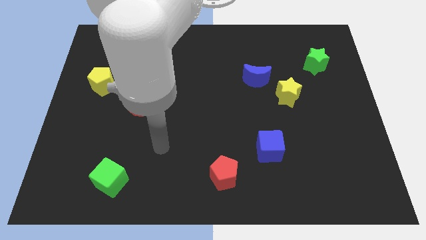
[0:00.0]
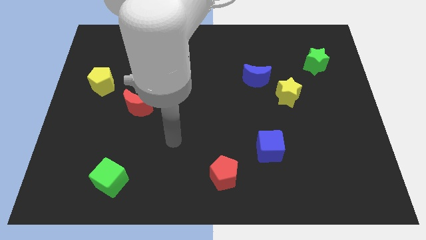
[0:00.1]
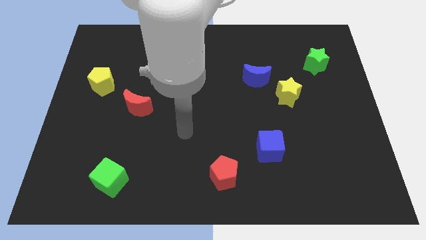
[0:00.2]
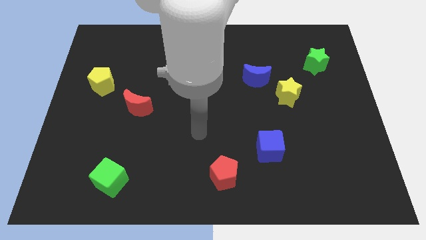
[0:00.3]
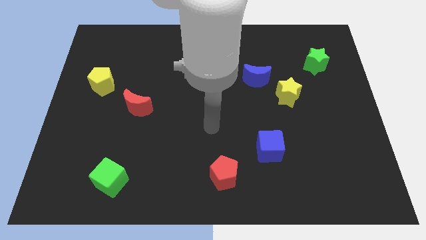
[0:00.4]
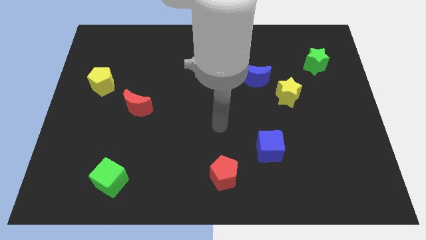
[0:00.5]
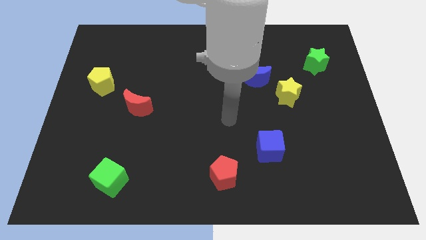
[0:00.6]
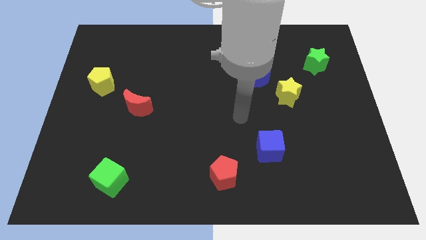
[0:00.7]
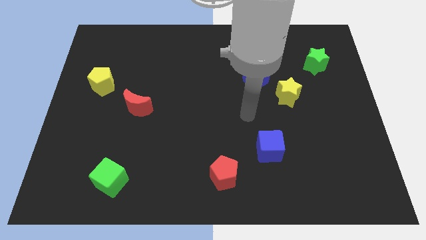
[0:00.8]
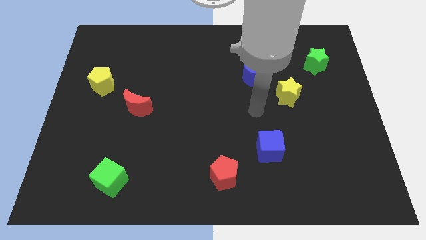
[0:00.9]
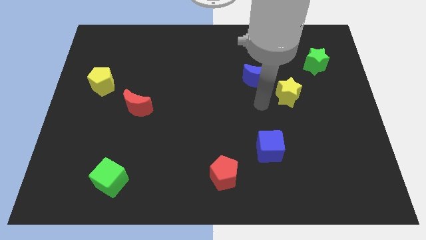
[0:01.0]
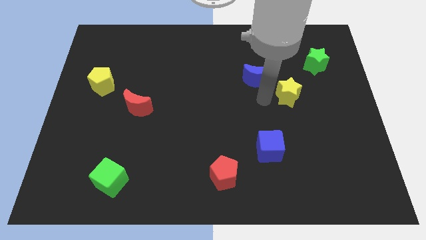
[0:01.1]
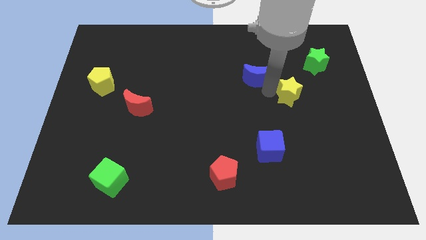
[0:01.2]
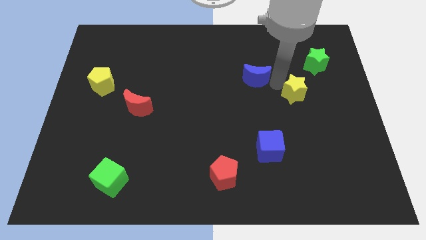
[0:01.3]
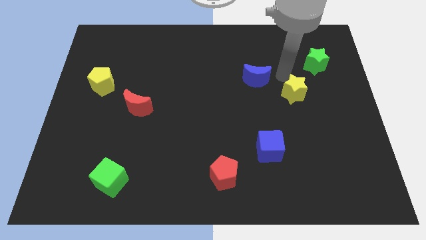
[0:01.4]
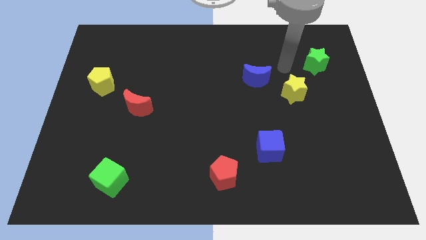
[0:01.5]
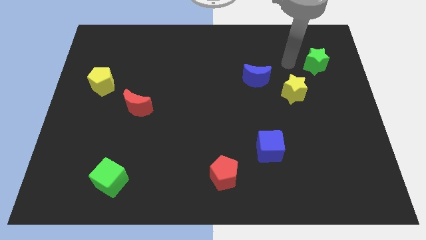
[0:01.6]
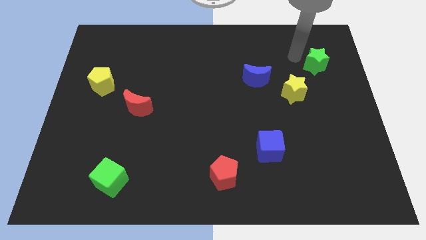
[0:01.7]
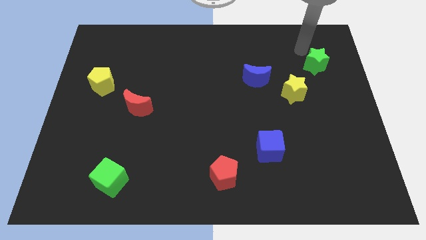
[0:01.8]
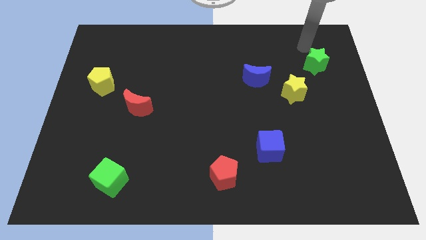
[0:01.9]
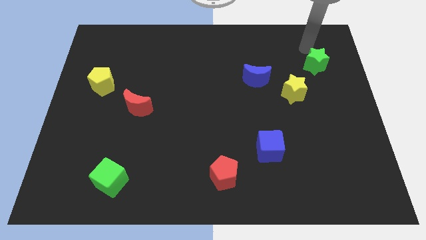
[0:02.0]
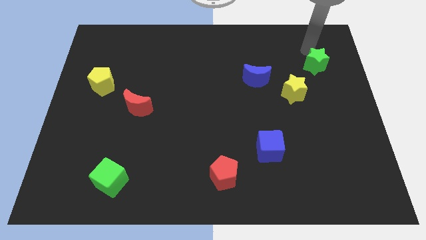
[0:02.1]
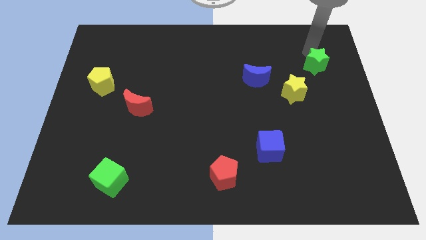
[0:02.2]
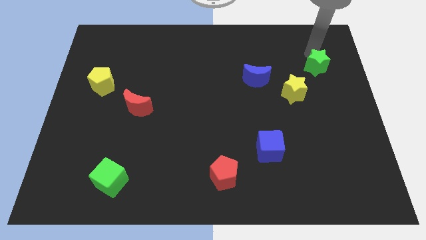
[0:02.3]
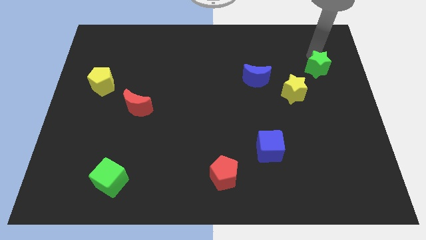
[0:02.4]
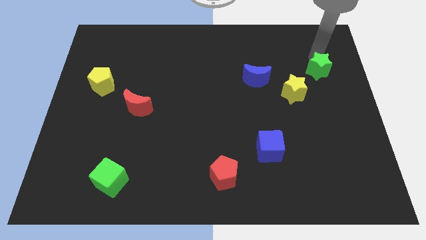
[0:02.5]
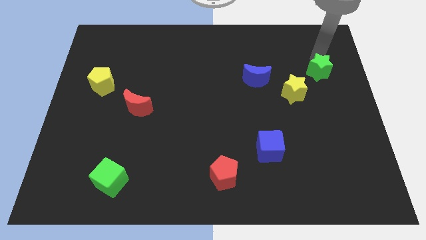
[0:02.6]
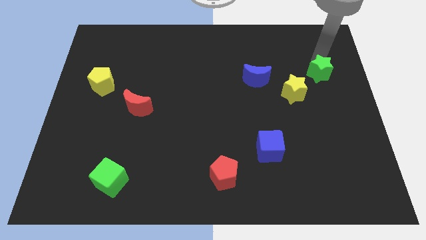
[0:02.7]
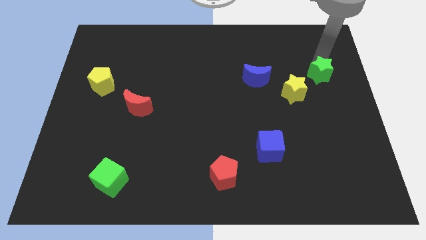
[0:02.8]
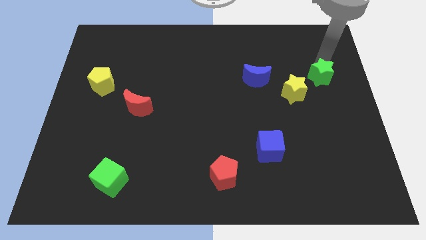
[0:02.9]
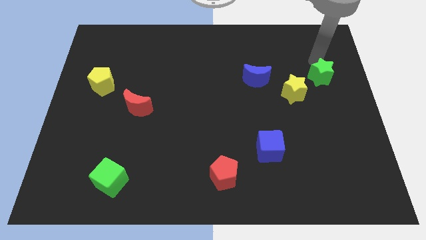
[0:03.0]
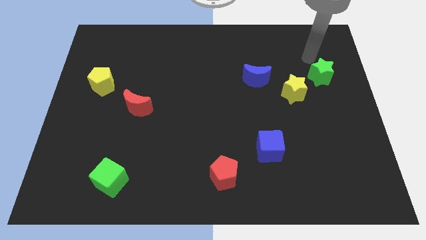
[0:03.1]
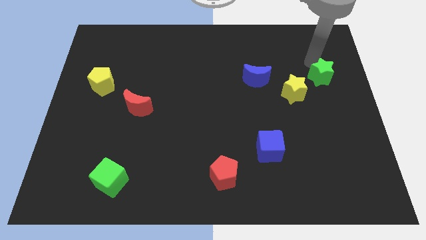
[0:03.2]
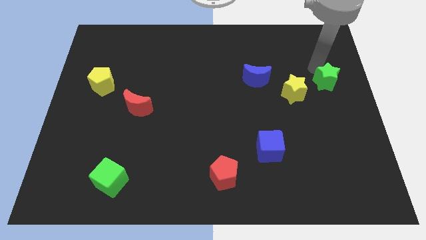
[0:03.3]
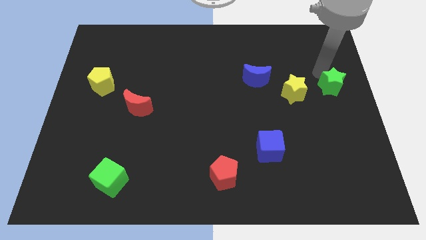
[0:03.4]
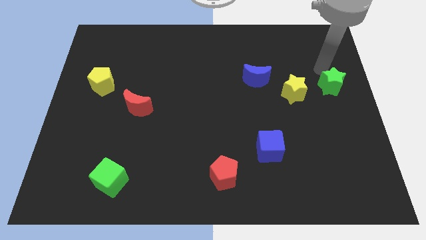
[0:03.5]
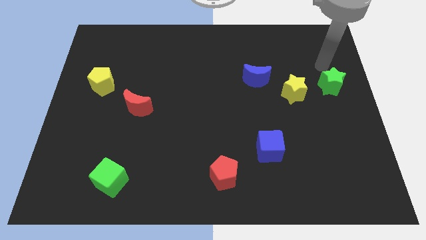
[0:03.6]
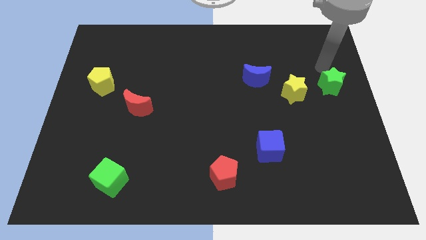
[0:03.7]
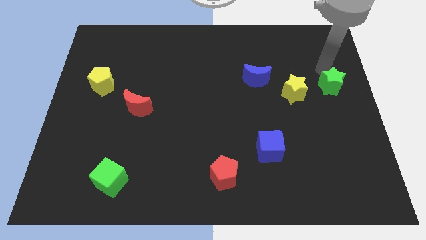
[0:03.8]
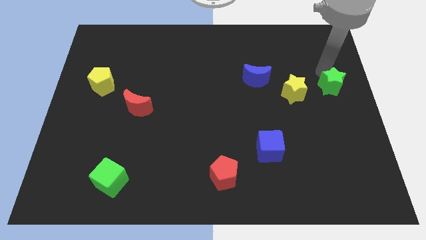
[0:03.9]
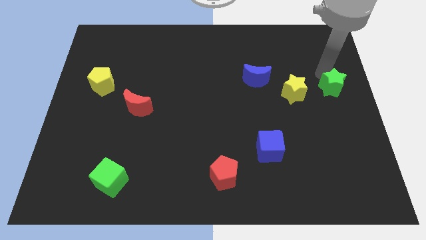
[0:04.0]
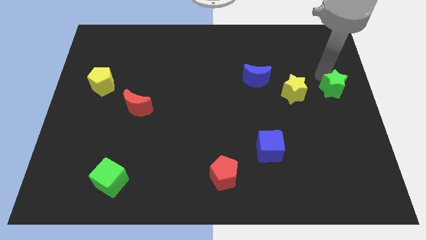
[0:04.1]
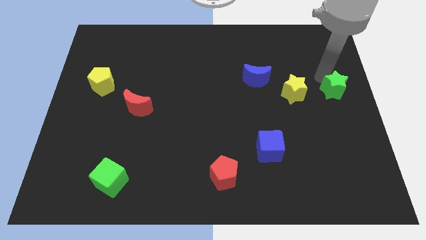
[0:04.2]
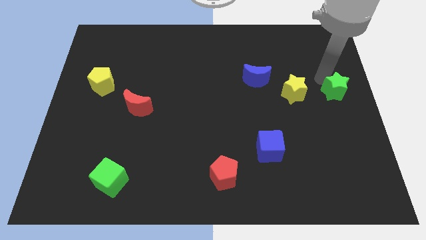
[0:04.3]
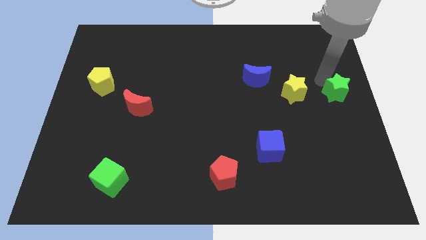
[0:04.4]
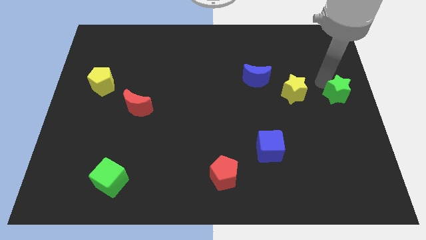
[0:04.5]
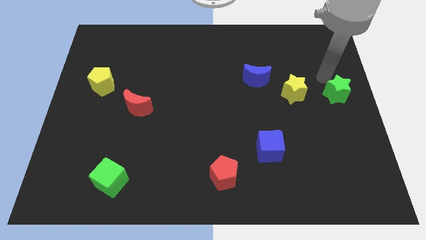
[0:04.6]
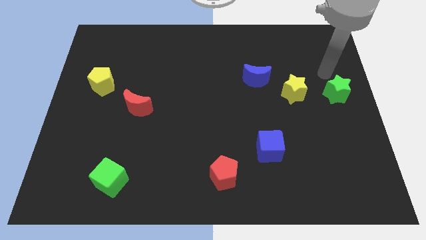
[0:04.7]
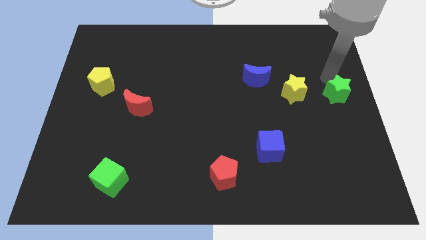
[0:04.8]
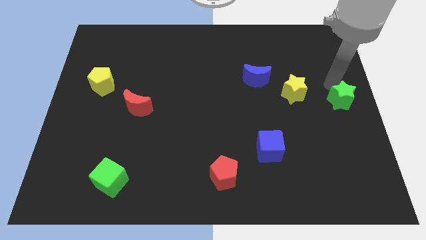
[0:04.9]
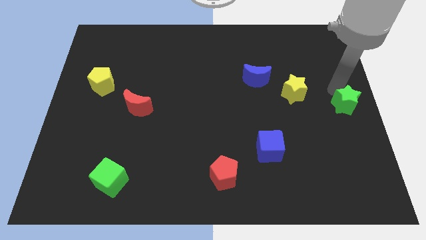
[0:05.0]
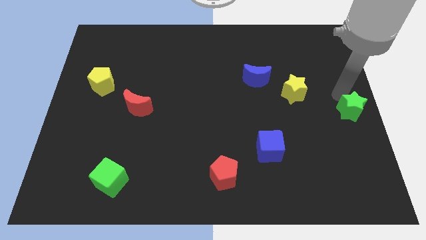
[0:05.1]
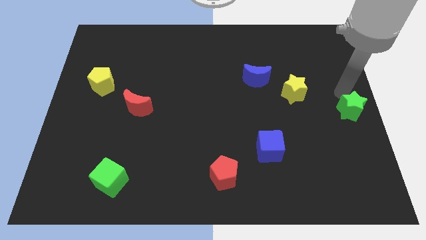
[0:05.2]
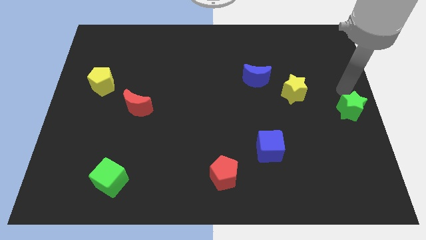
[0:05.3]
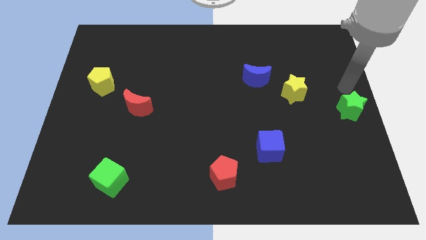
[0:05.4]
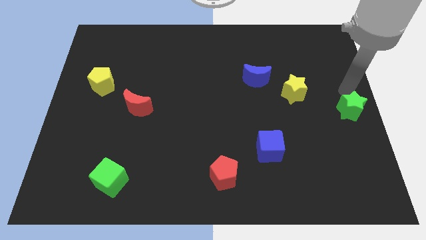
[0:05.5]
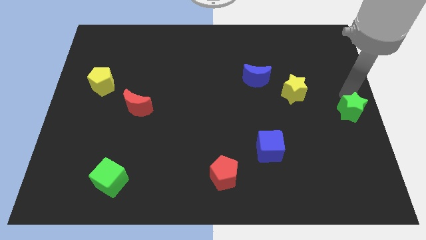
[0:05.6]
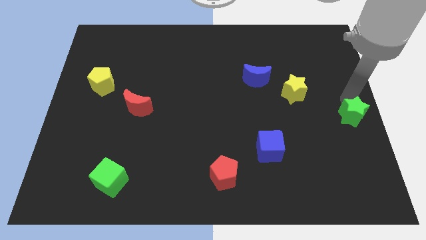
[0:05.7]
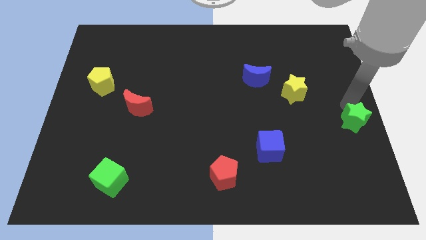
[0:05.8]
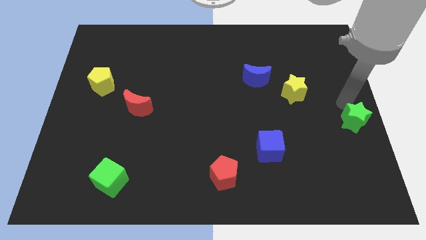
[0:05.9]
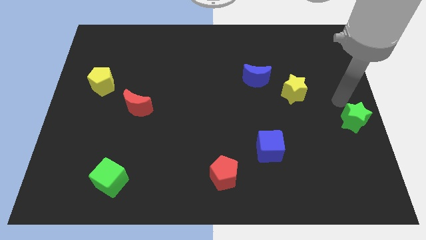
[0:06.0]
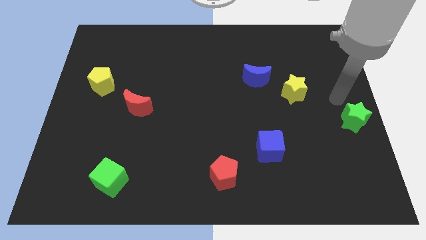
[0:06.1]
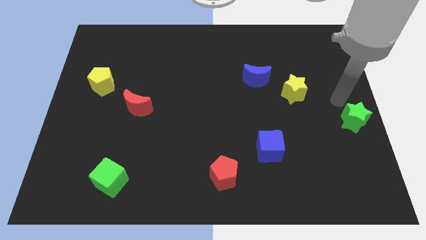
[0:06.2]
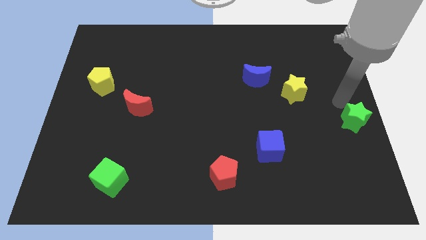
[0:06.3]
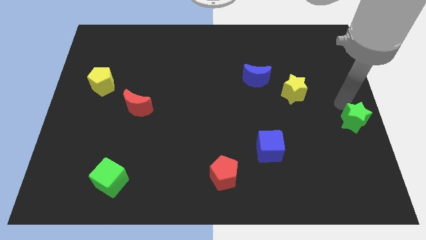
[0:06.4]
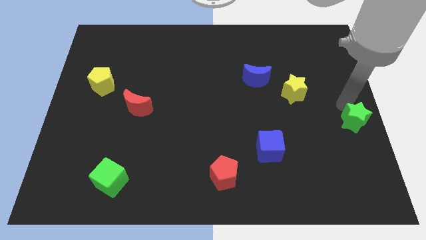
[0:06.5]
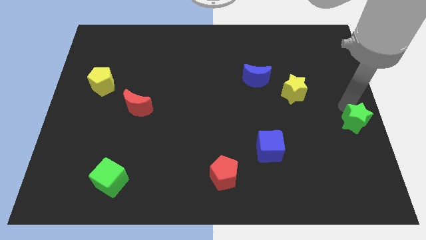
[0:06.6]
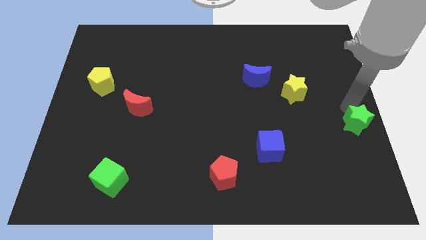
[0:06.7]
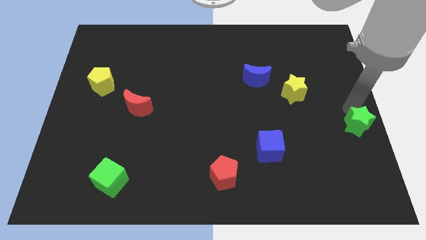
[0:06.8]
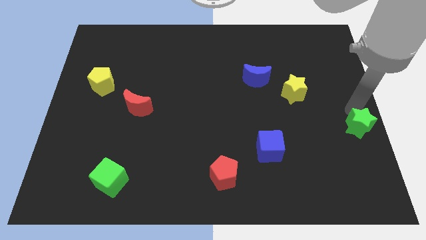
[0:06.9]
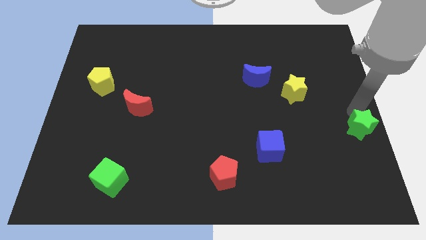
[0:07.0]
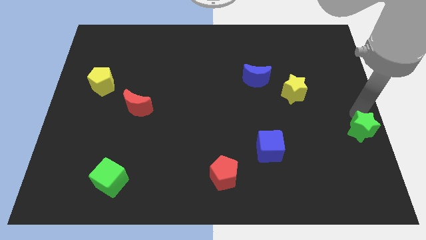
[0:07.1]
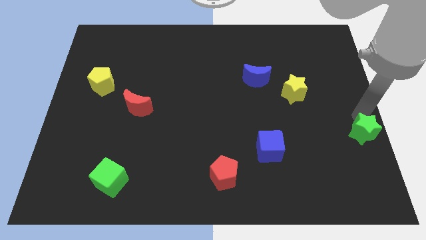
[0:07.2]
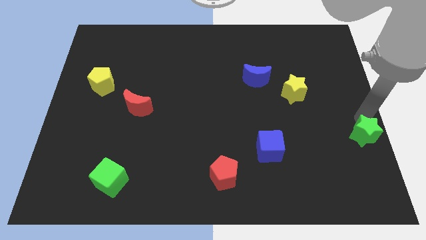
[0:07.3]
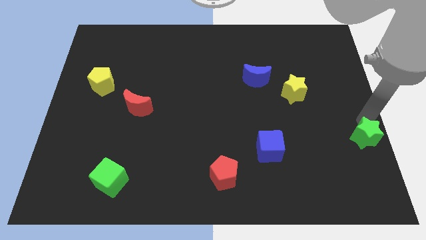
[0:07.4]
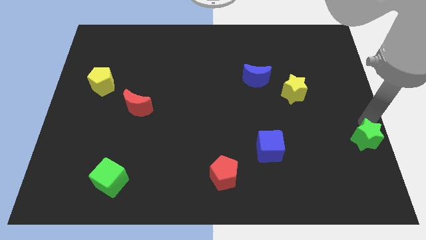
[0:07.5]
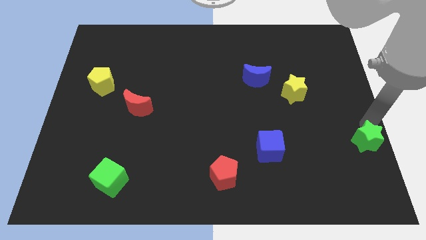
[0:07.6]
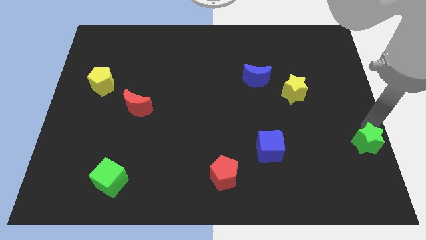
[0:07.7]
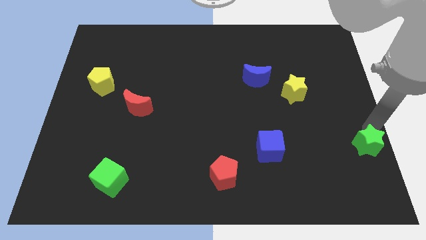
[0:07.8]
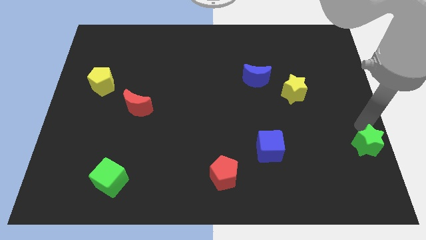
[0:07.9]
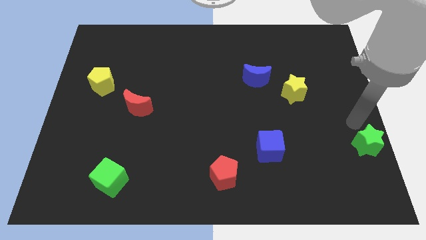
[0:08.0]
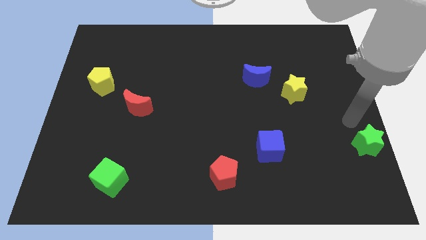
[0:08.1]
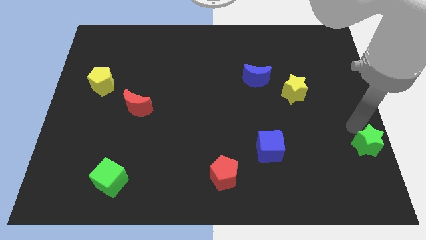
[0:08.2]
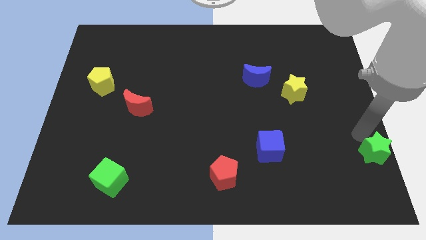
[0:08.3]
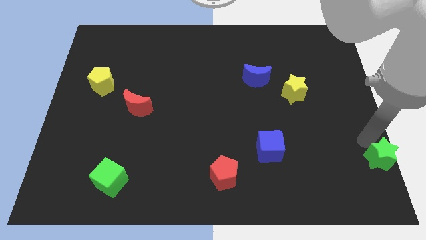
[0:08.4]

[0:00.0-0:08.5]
move the green star to the lower right corner
